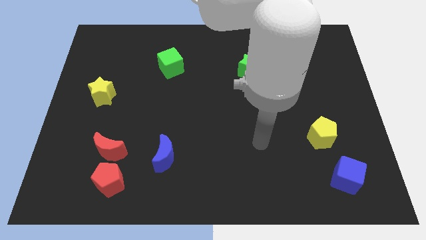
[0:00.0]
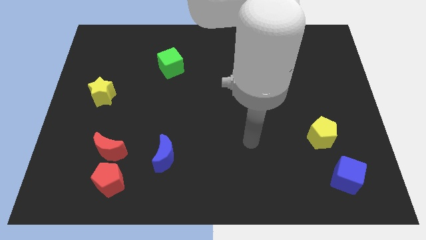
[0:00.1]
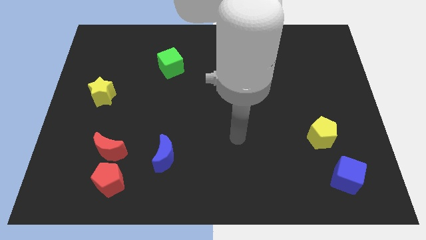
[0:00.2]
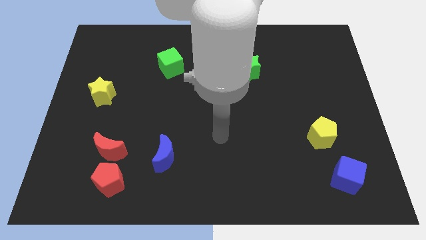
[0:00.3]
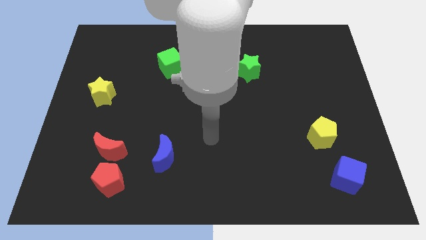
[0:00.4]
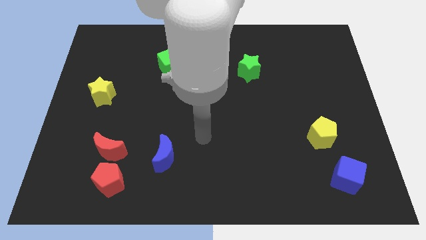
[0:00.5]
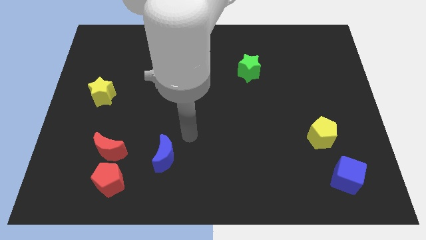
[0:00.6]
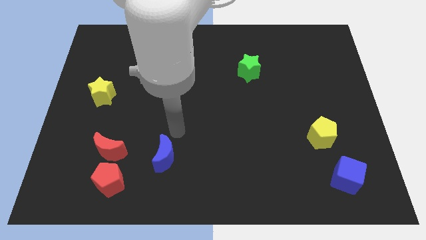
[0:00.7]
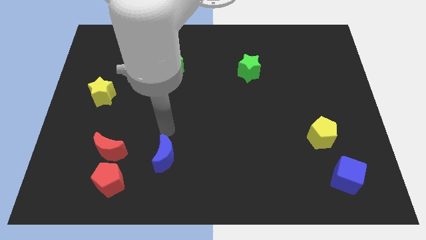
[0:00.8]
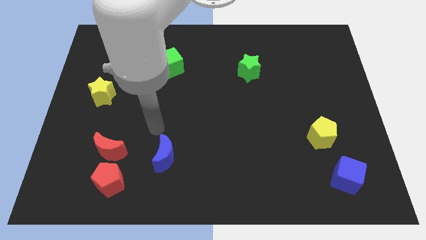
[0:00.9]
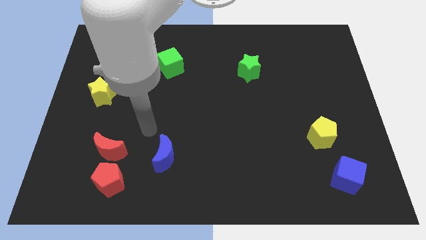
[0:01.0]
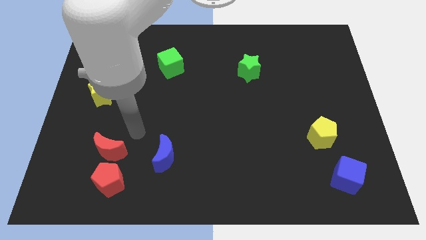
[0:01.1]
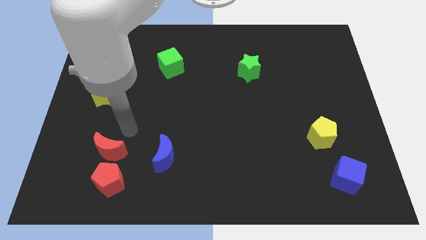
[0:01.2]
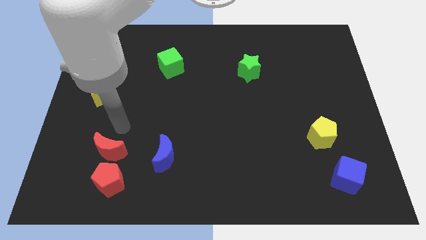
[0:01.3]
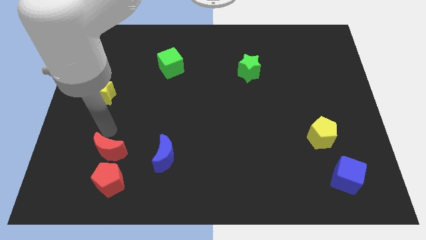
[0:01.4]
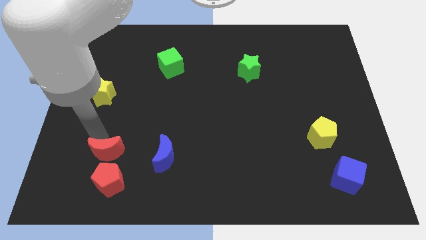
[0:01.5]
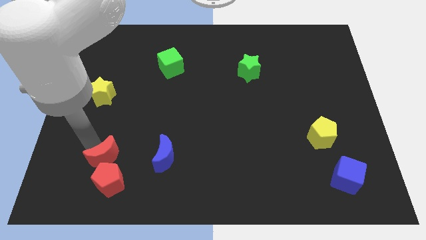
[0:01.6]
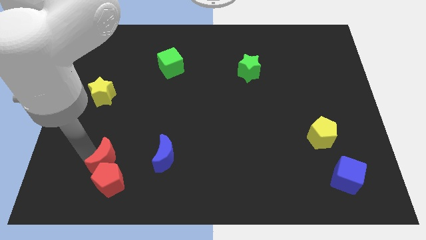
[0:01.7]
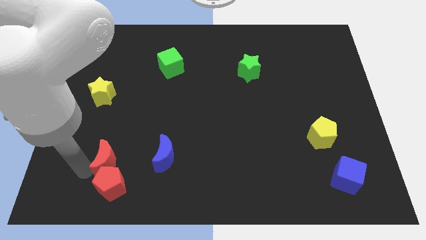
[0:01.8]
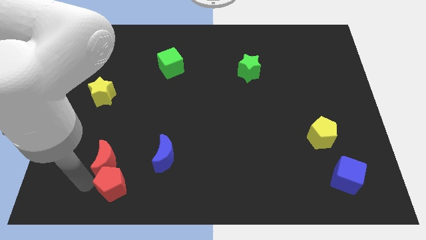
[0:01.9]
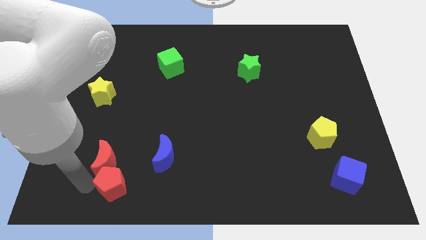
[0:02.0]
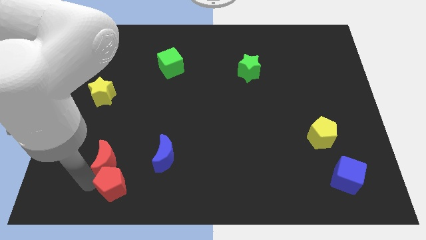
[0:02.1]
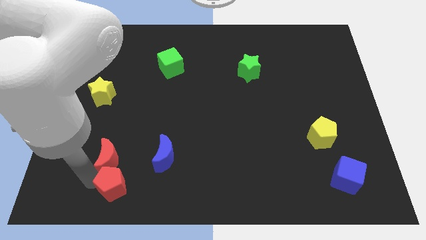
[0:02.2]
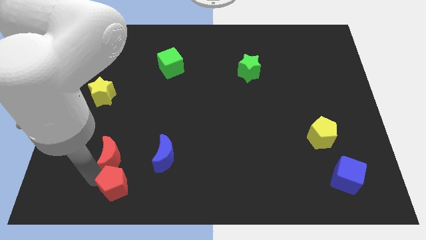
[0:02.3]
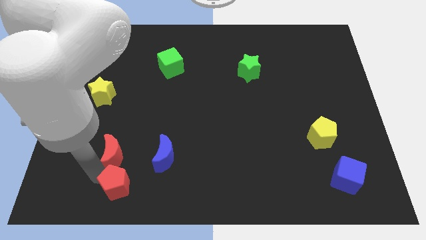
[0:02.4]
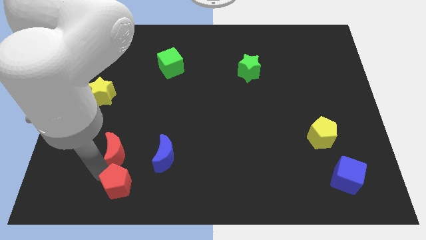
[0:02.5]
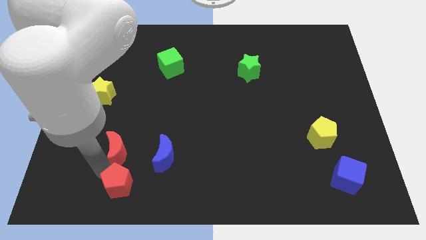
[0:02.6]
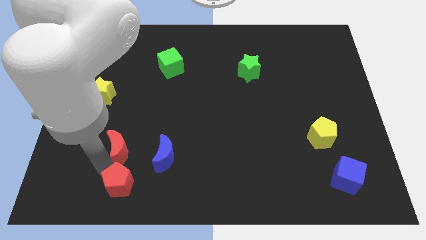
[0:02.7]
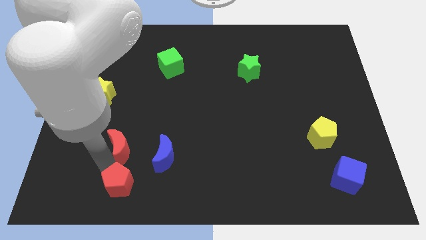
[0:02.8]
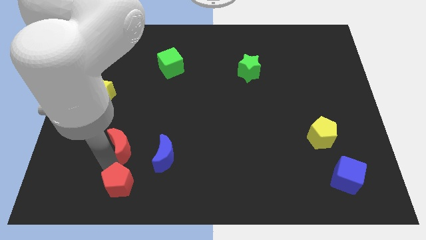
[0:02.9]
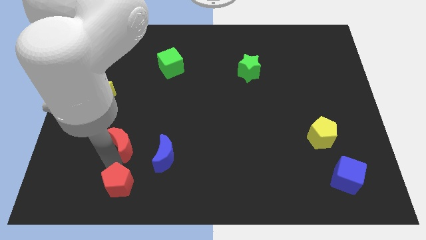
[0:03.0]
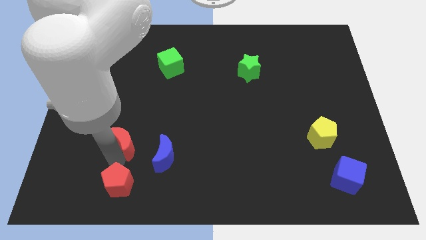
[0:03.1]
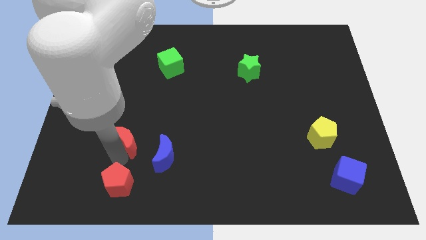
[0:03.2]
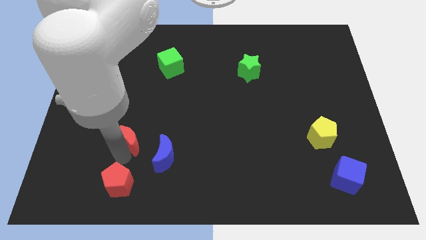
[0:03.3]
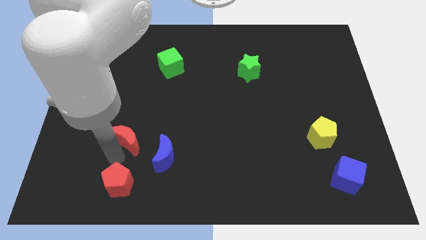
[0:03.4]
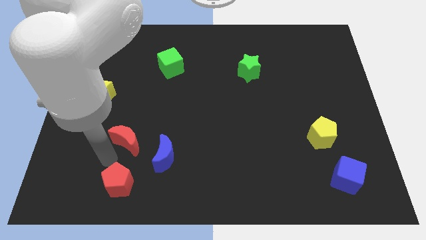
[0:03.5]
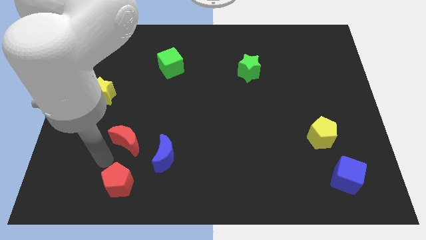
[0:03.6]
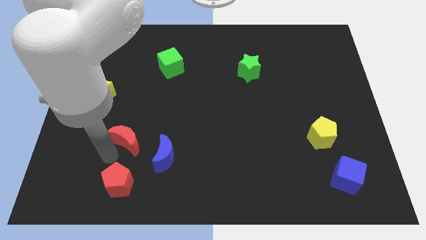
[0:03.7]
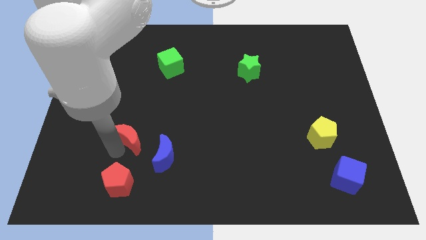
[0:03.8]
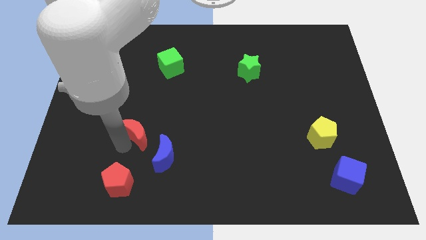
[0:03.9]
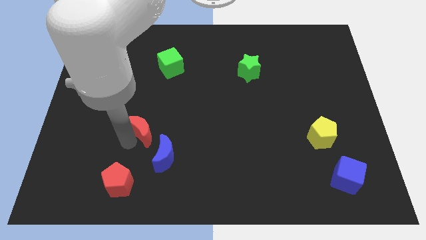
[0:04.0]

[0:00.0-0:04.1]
slightly push the red moon up and then right

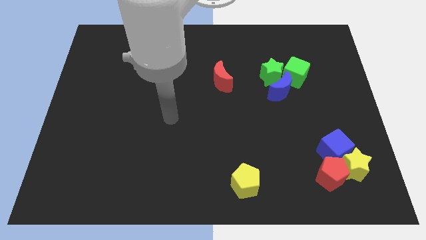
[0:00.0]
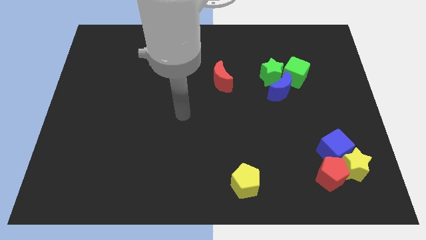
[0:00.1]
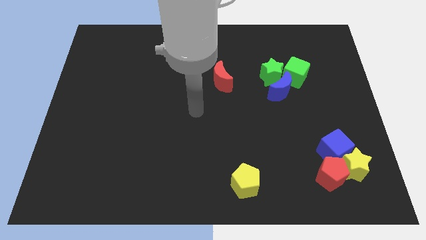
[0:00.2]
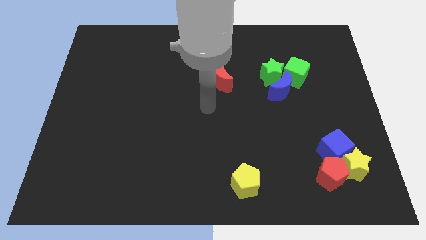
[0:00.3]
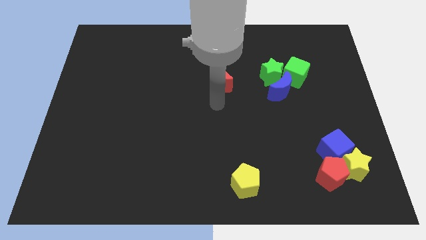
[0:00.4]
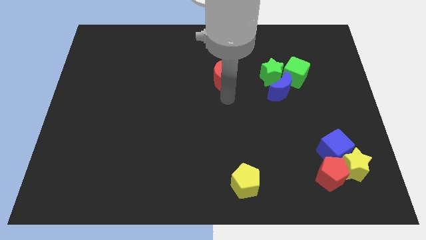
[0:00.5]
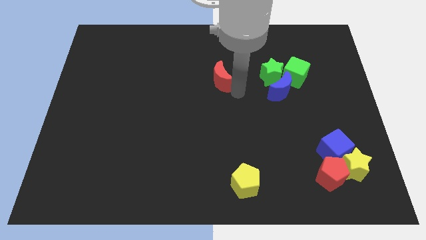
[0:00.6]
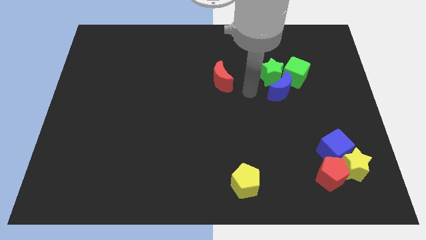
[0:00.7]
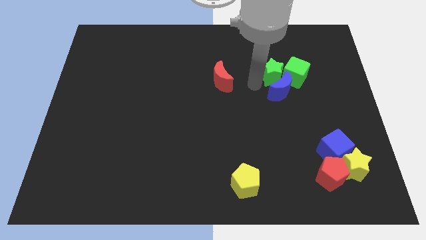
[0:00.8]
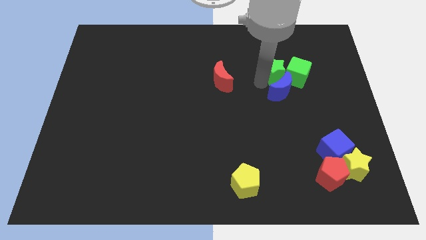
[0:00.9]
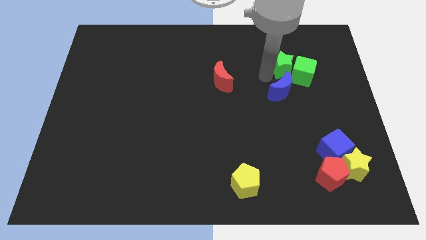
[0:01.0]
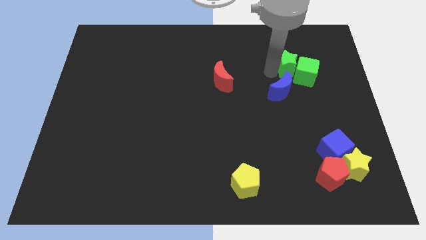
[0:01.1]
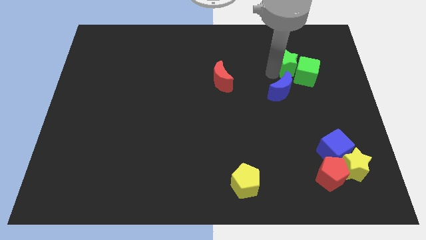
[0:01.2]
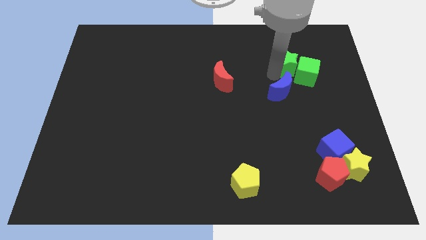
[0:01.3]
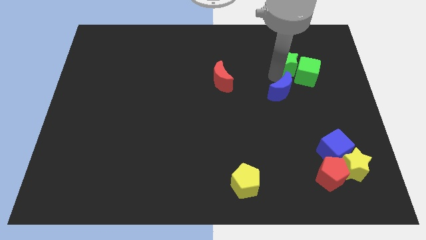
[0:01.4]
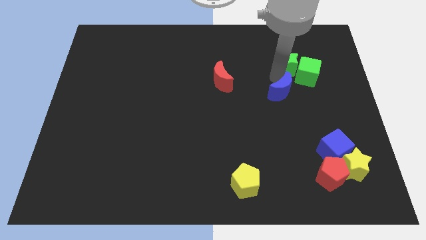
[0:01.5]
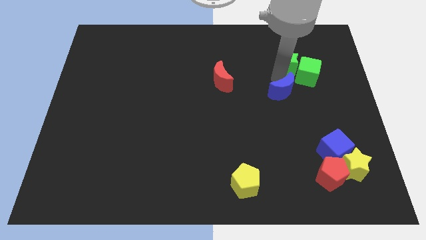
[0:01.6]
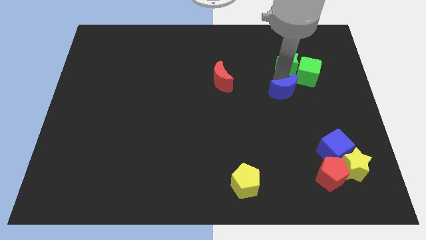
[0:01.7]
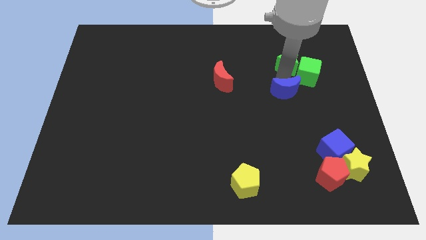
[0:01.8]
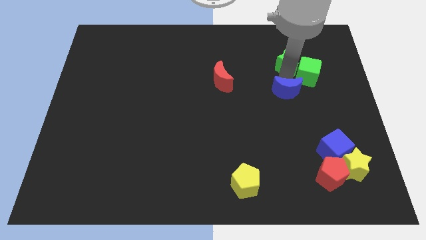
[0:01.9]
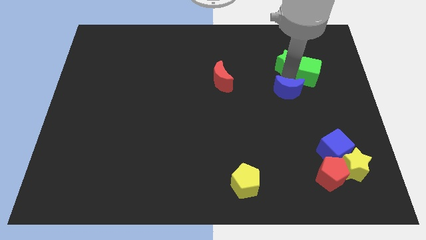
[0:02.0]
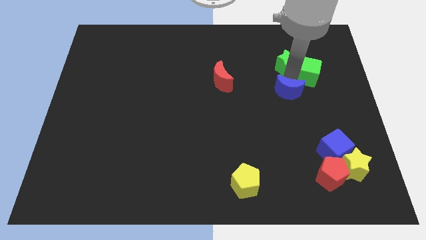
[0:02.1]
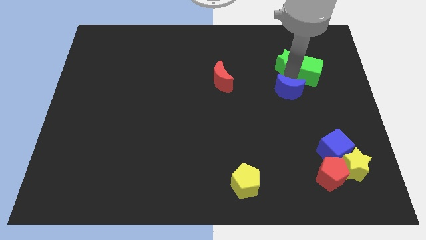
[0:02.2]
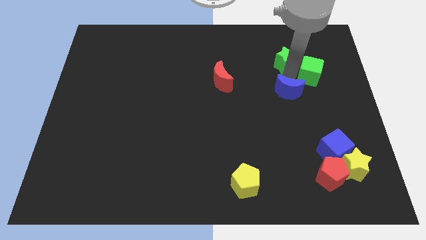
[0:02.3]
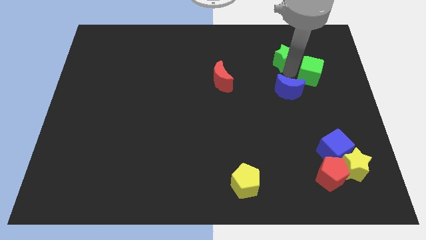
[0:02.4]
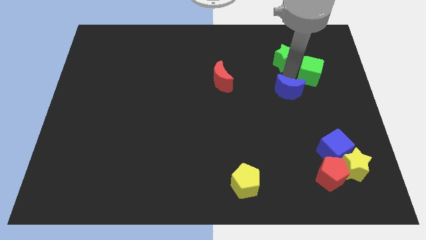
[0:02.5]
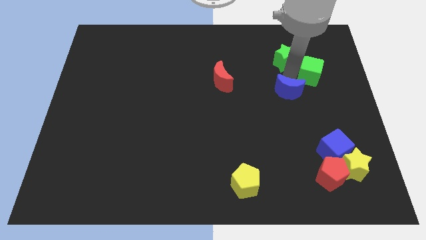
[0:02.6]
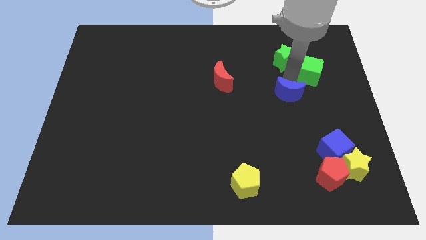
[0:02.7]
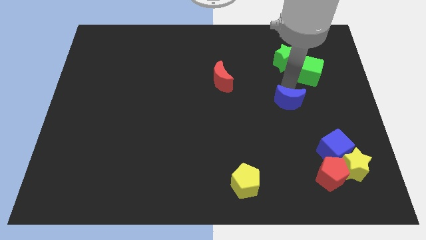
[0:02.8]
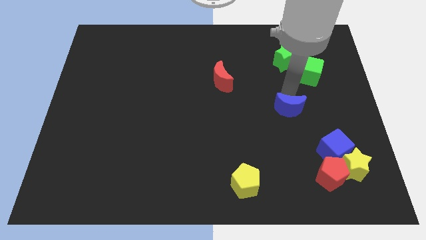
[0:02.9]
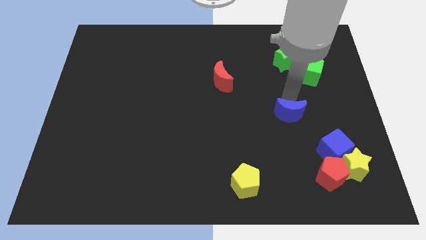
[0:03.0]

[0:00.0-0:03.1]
slightly push the blue moon downwards

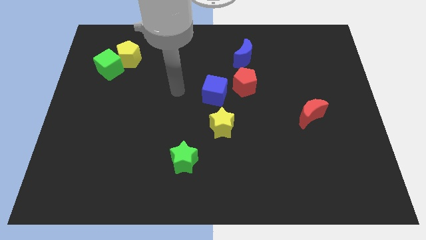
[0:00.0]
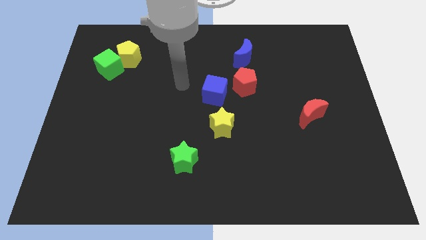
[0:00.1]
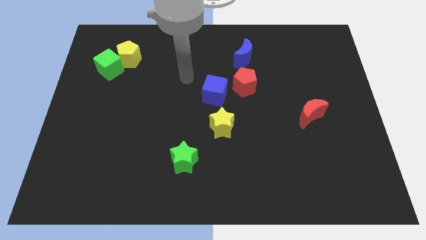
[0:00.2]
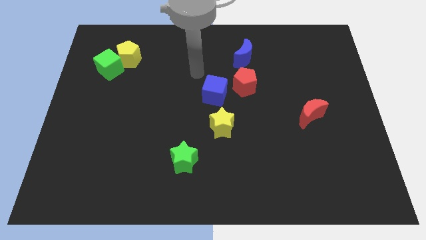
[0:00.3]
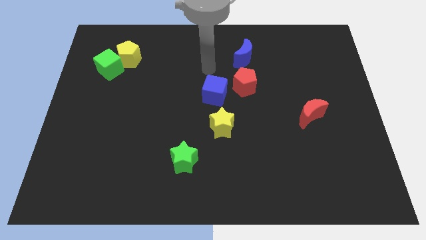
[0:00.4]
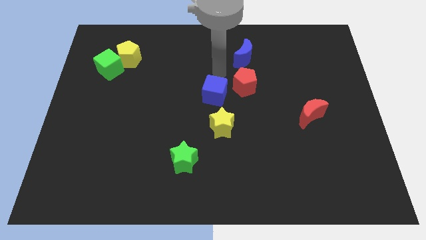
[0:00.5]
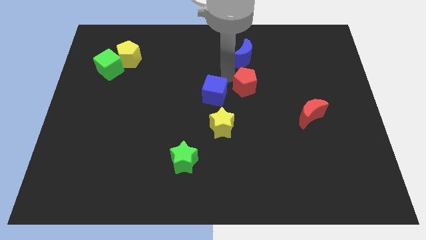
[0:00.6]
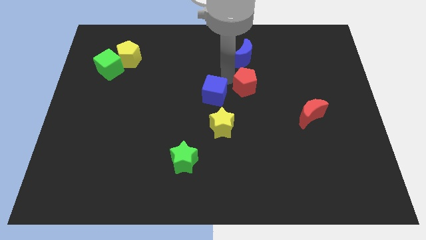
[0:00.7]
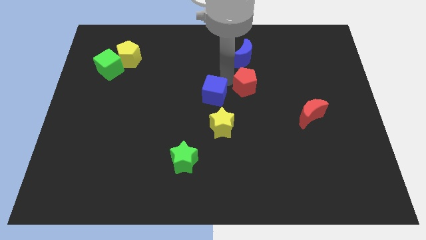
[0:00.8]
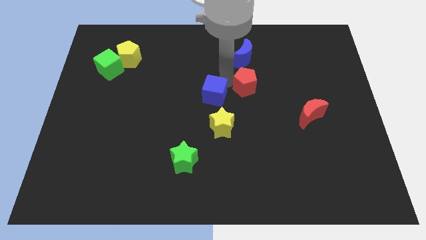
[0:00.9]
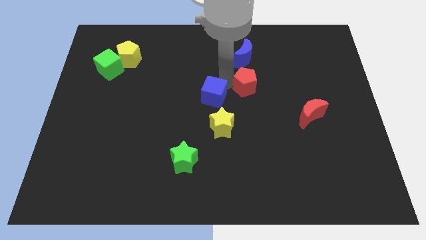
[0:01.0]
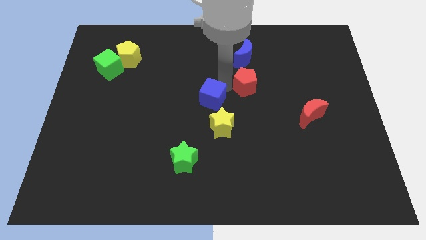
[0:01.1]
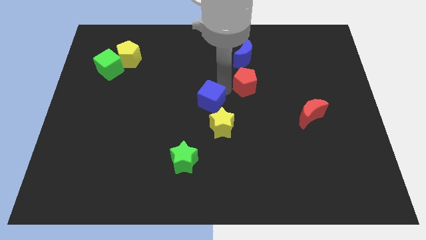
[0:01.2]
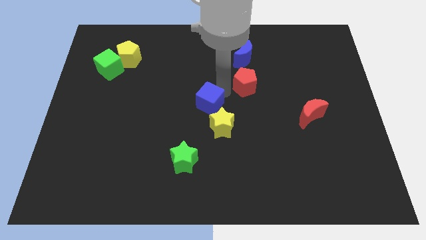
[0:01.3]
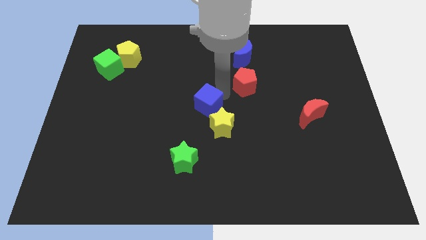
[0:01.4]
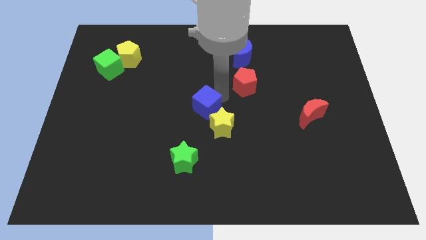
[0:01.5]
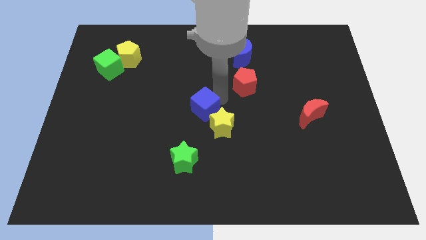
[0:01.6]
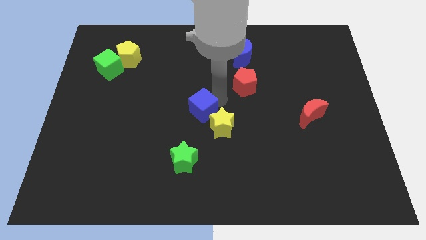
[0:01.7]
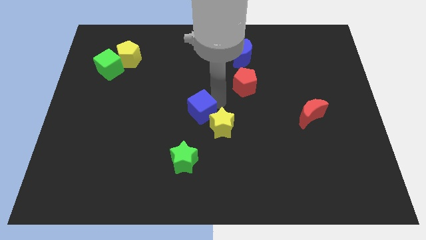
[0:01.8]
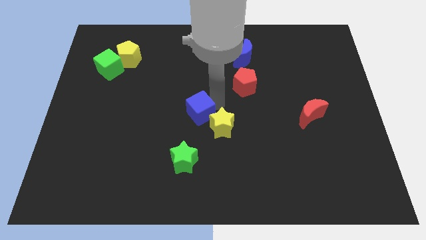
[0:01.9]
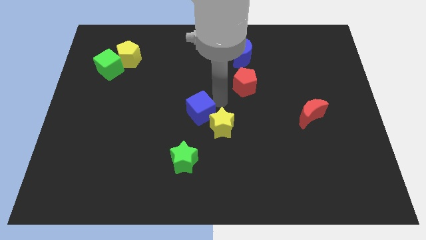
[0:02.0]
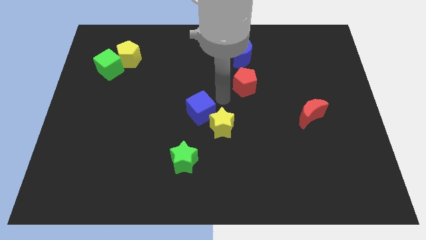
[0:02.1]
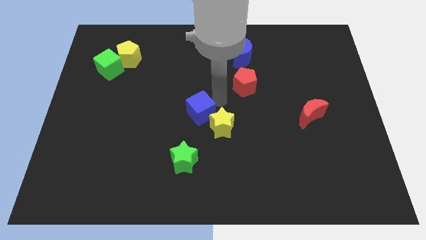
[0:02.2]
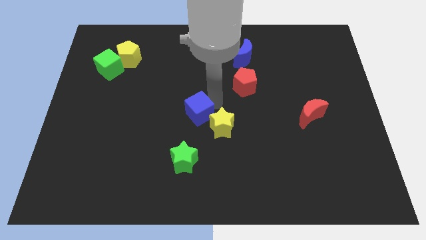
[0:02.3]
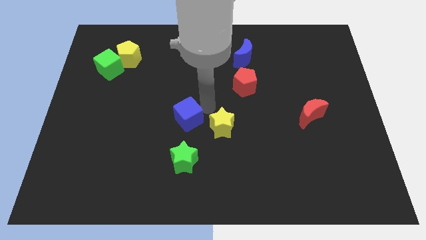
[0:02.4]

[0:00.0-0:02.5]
push the blue cube slightly downwards and to the left
